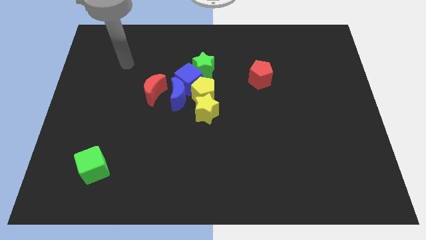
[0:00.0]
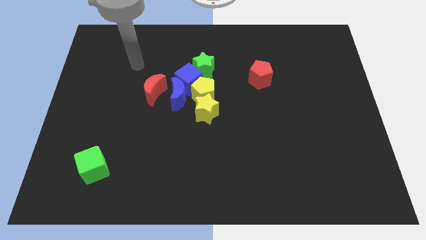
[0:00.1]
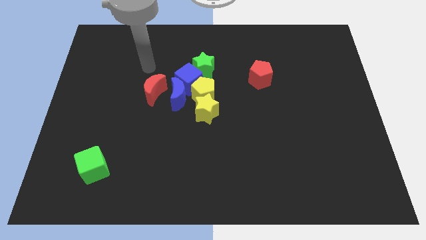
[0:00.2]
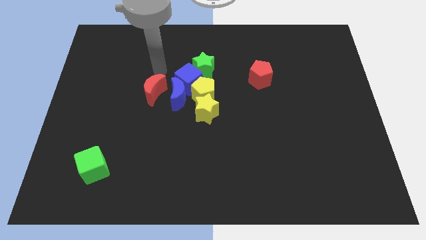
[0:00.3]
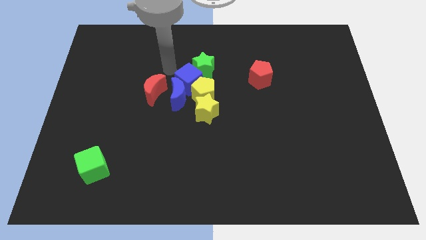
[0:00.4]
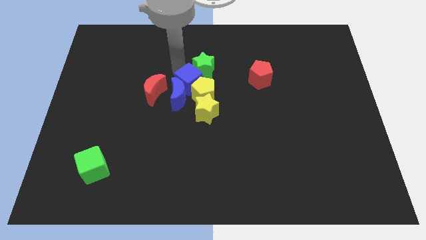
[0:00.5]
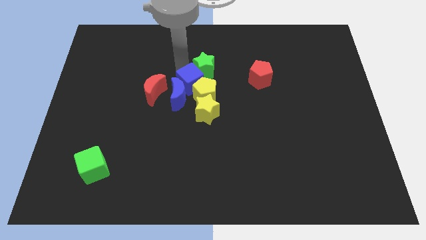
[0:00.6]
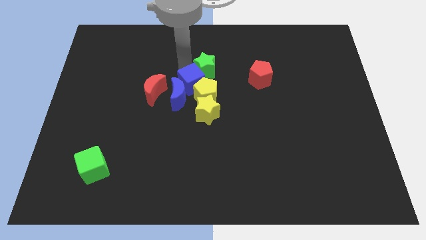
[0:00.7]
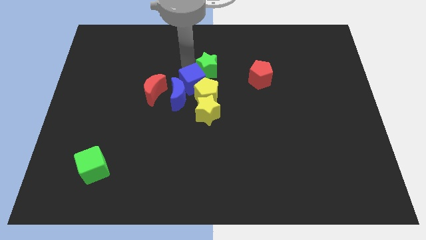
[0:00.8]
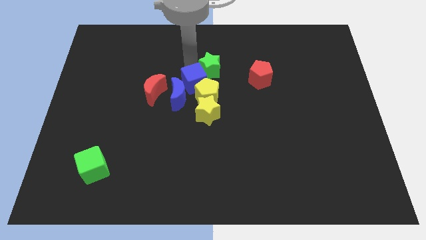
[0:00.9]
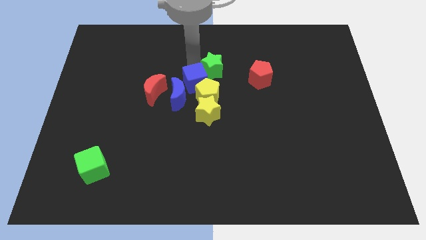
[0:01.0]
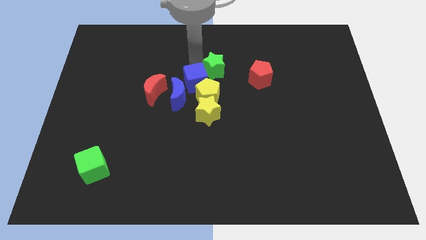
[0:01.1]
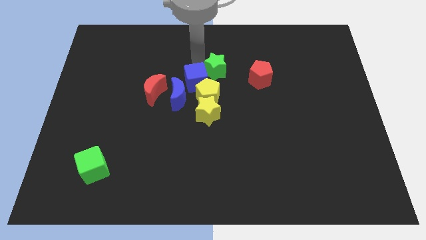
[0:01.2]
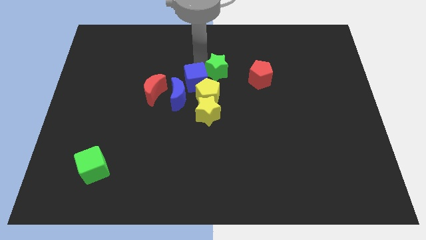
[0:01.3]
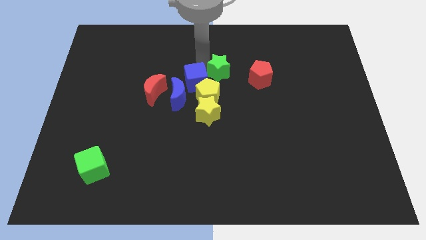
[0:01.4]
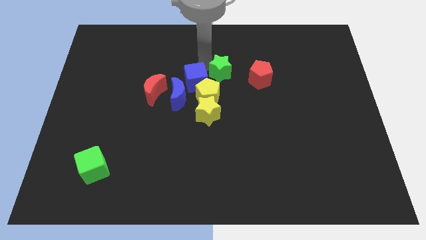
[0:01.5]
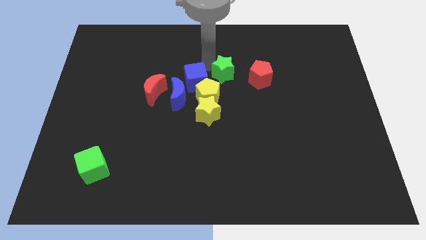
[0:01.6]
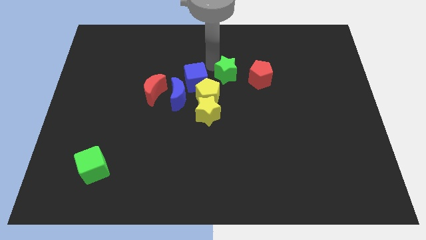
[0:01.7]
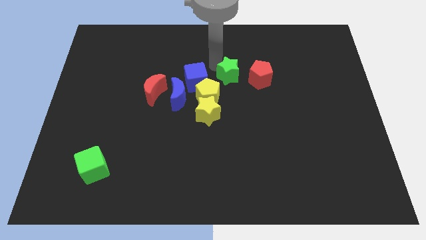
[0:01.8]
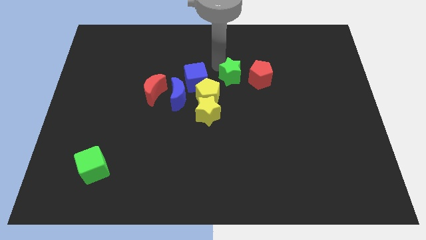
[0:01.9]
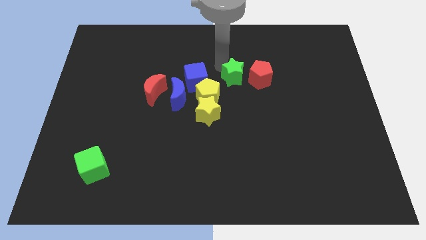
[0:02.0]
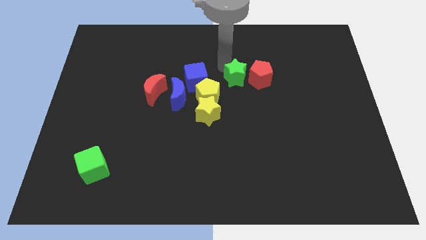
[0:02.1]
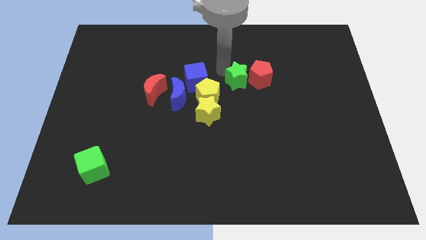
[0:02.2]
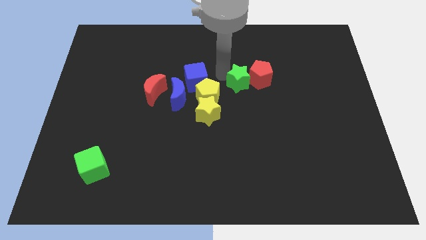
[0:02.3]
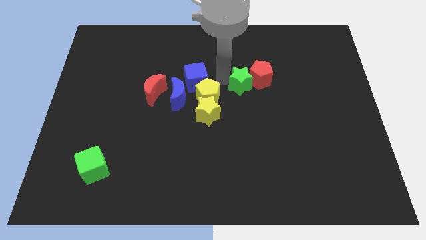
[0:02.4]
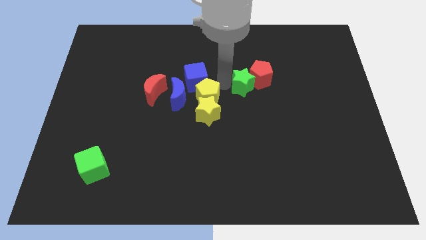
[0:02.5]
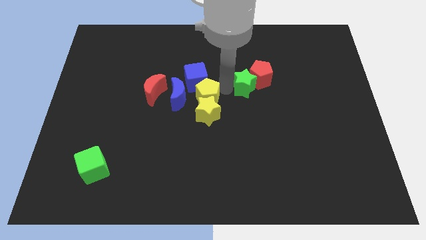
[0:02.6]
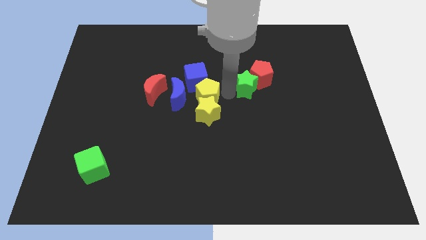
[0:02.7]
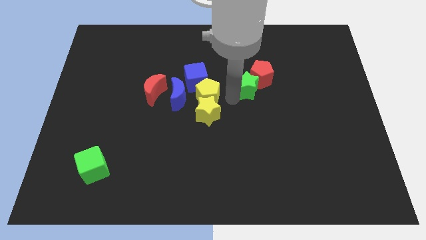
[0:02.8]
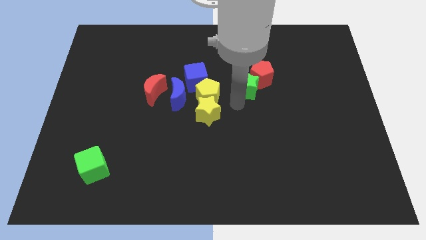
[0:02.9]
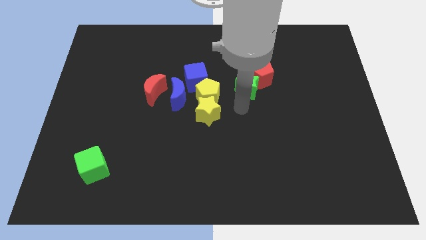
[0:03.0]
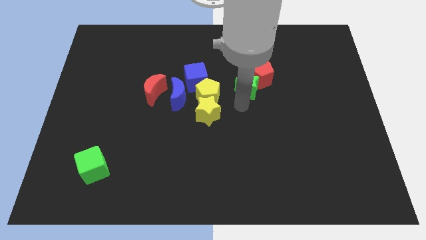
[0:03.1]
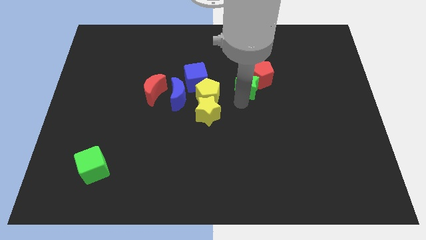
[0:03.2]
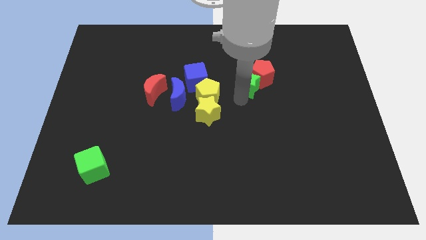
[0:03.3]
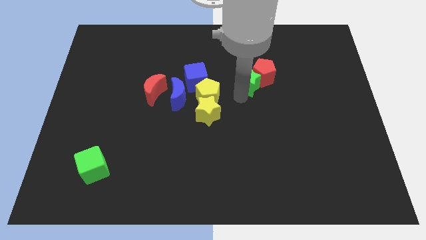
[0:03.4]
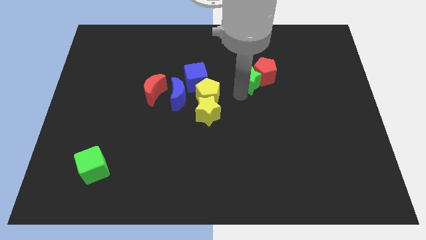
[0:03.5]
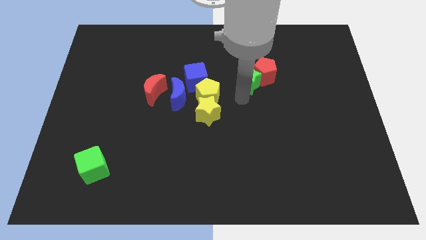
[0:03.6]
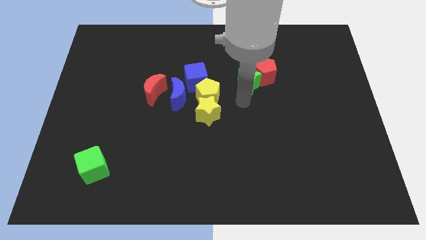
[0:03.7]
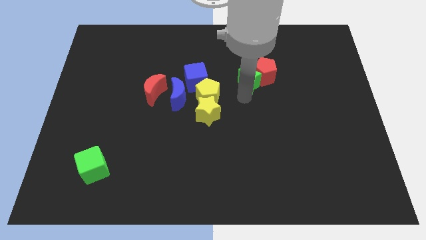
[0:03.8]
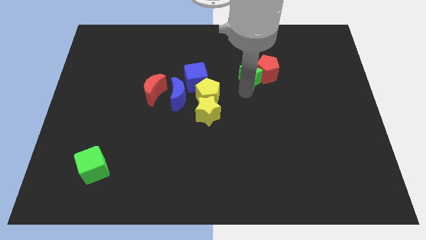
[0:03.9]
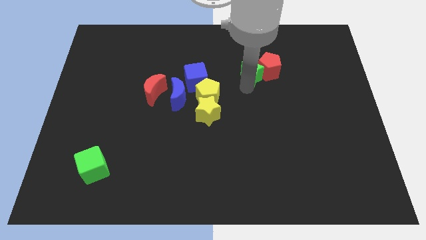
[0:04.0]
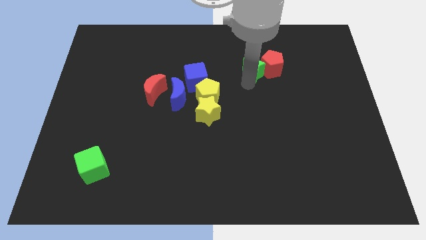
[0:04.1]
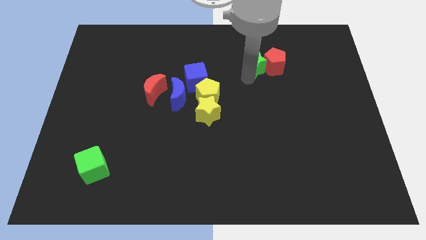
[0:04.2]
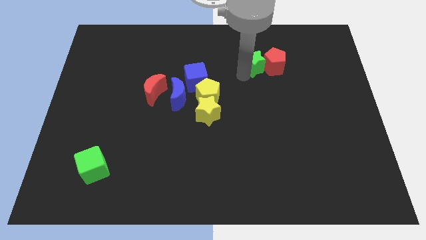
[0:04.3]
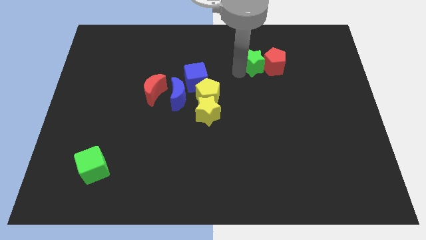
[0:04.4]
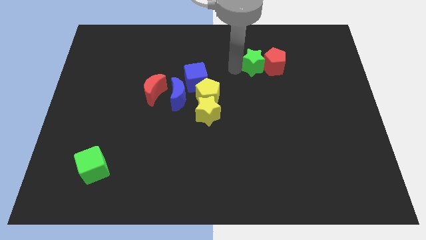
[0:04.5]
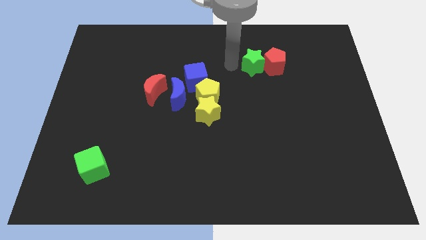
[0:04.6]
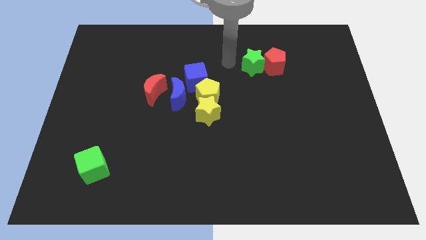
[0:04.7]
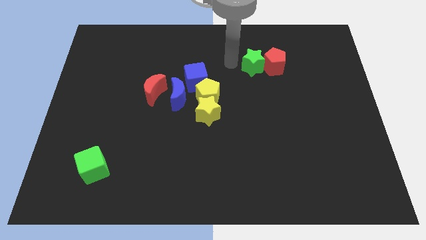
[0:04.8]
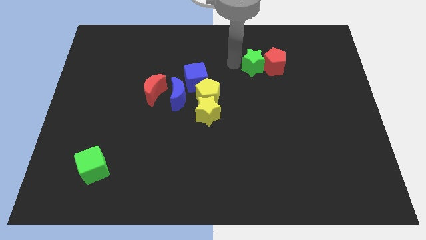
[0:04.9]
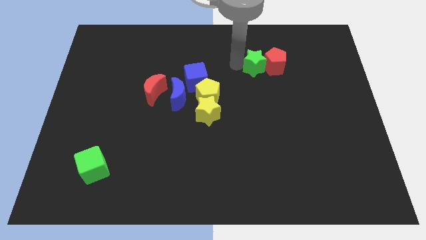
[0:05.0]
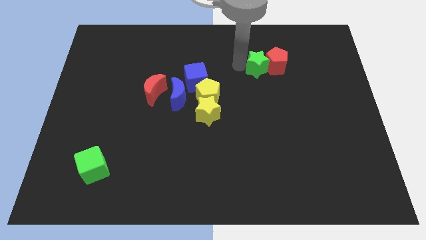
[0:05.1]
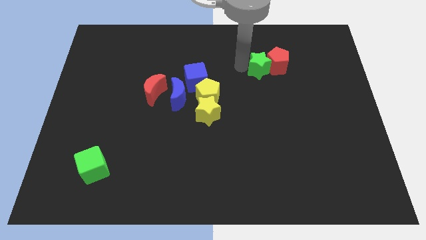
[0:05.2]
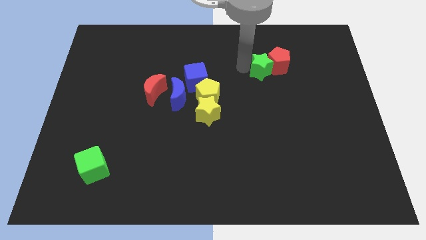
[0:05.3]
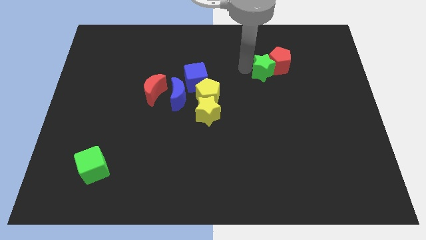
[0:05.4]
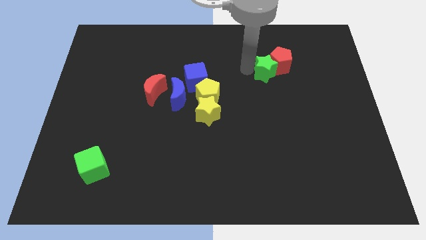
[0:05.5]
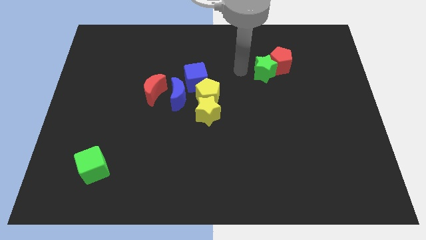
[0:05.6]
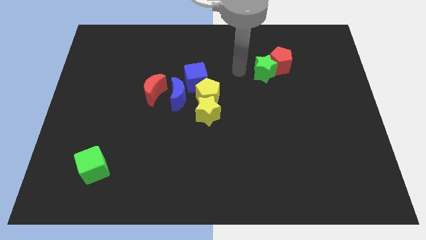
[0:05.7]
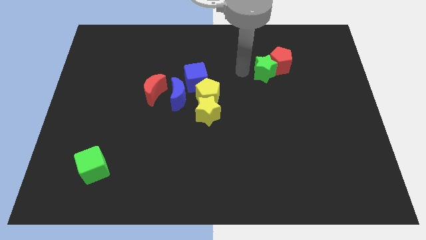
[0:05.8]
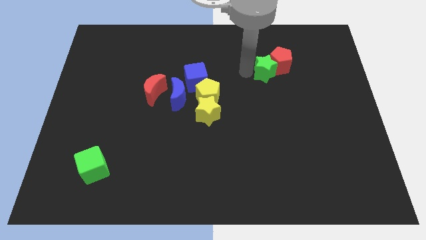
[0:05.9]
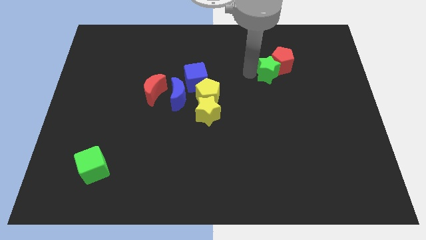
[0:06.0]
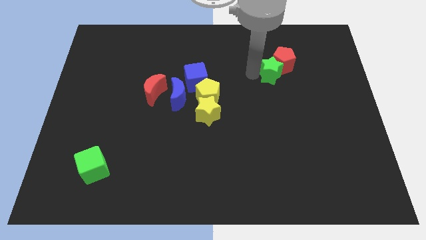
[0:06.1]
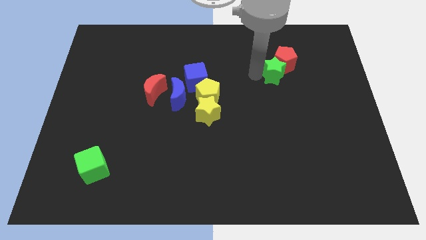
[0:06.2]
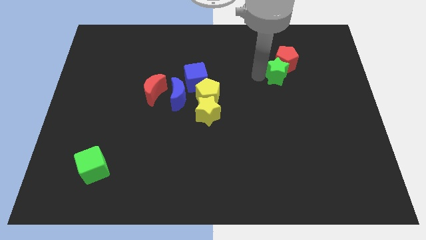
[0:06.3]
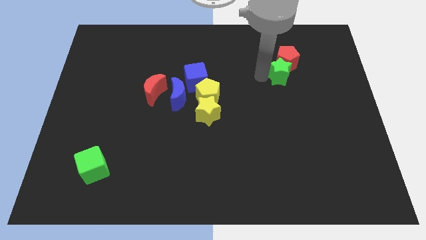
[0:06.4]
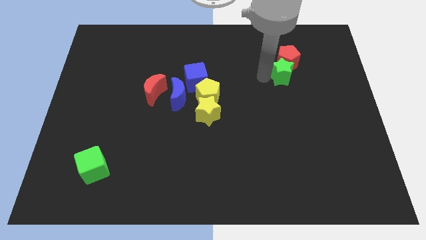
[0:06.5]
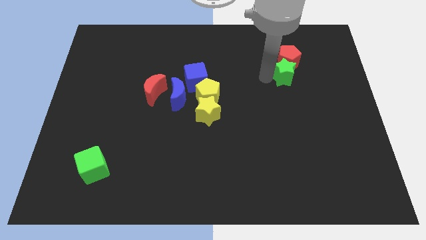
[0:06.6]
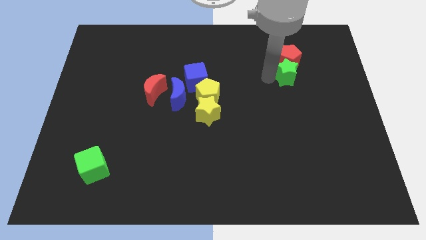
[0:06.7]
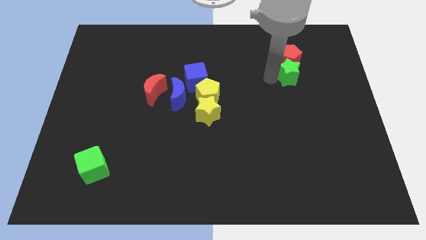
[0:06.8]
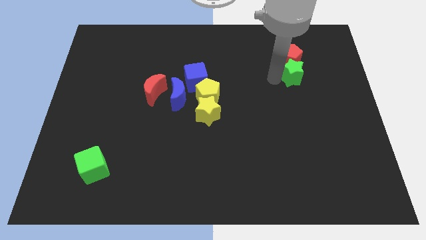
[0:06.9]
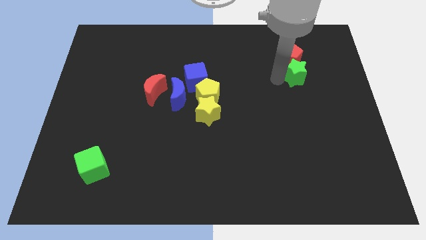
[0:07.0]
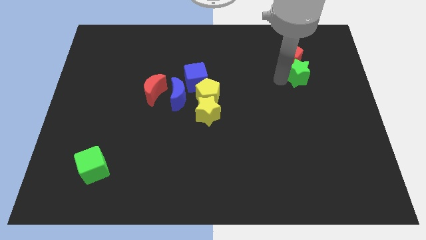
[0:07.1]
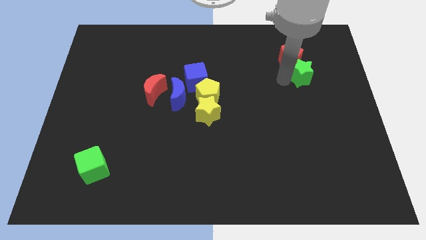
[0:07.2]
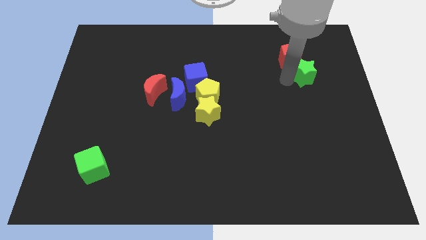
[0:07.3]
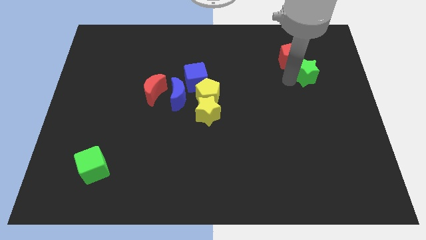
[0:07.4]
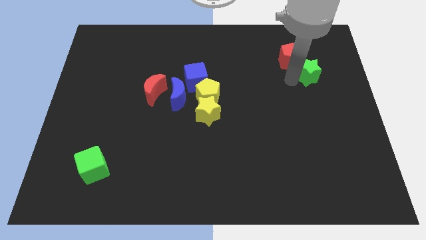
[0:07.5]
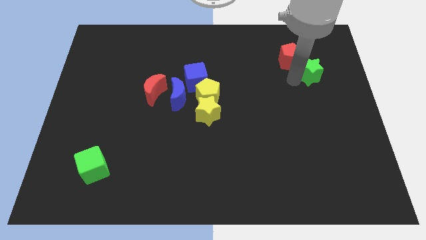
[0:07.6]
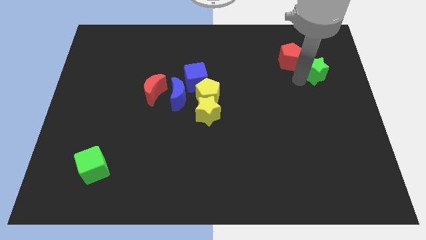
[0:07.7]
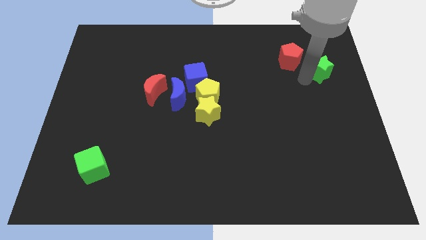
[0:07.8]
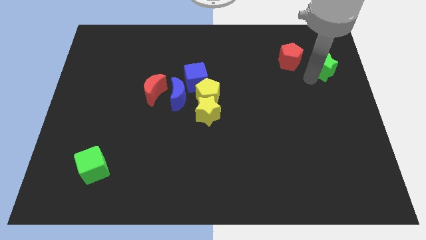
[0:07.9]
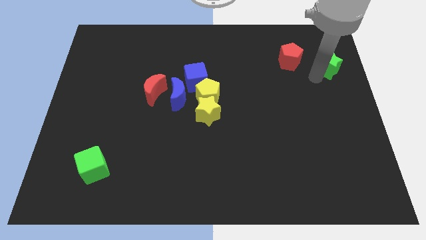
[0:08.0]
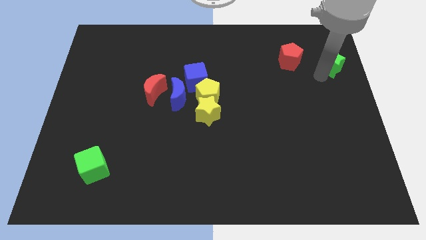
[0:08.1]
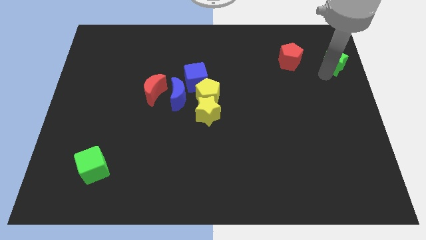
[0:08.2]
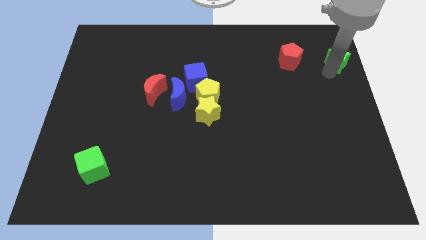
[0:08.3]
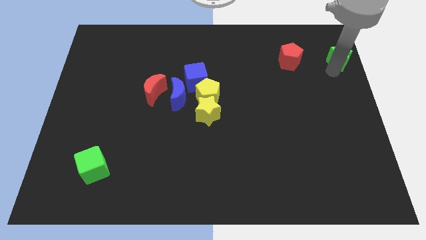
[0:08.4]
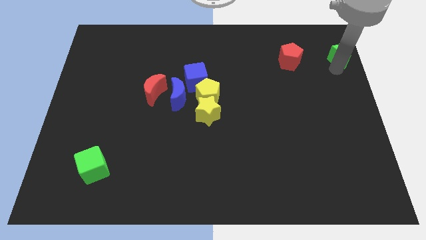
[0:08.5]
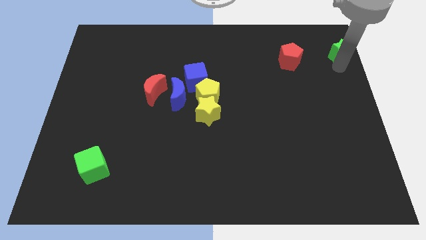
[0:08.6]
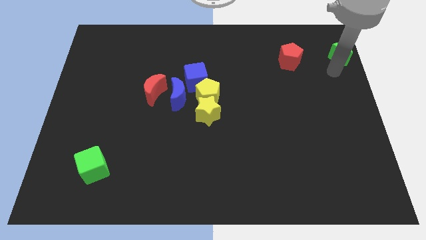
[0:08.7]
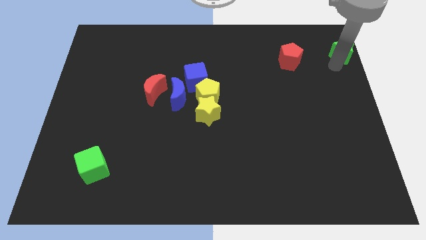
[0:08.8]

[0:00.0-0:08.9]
put the green star to the top right of the board
